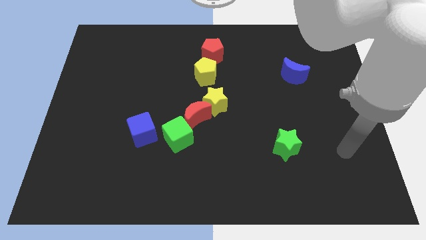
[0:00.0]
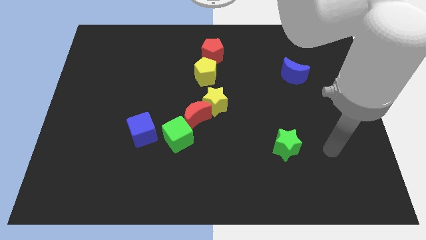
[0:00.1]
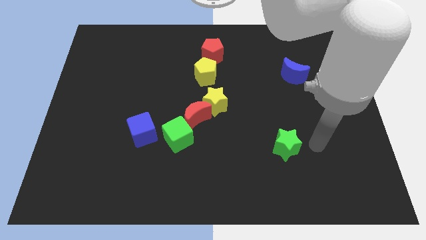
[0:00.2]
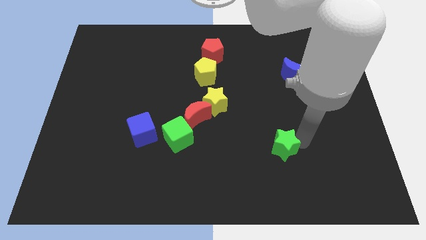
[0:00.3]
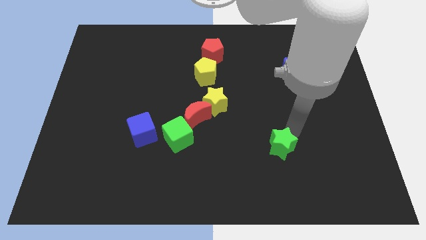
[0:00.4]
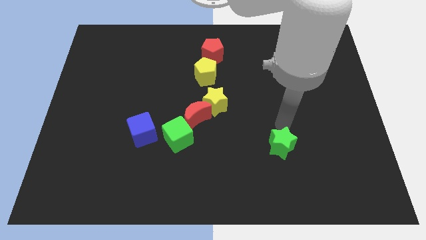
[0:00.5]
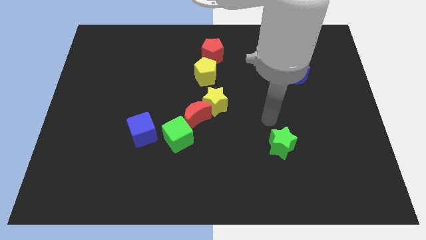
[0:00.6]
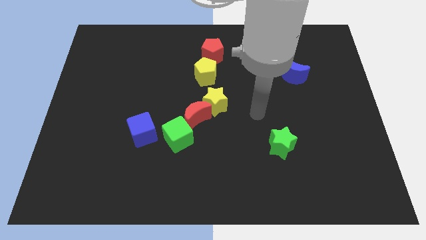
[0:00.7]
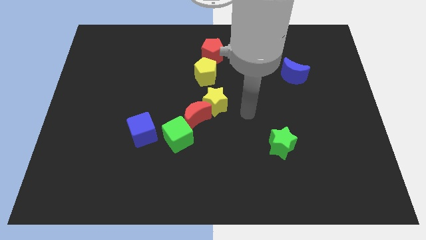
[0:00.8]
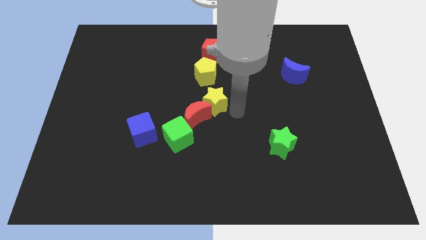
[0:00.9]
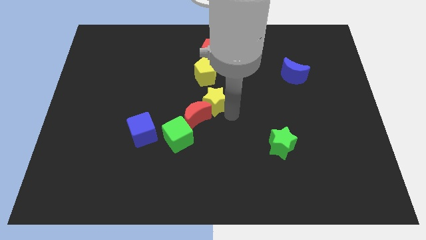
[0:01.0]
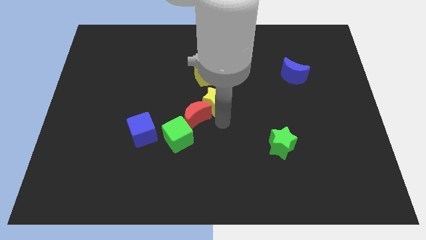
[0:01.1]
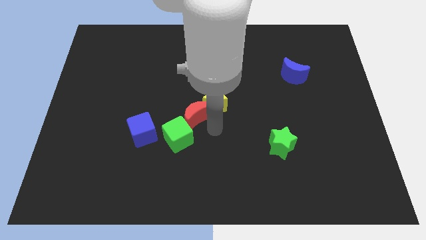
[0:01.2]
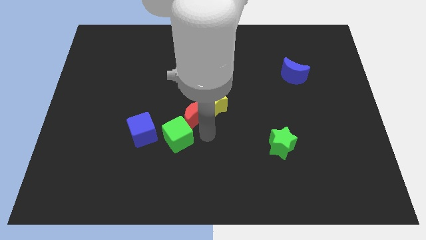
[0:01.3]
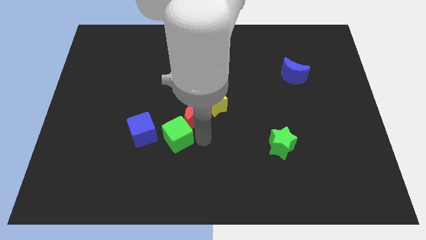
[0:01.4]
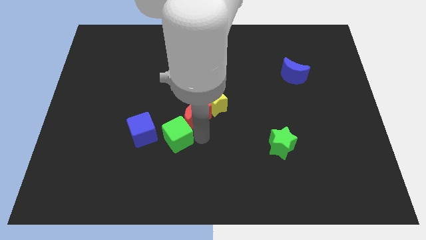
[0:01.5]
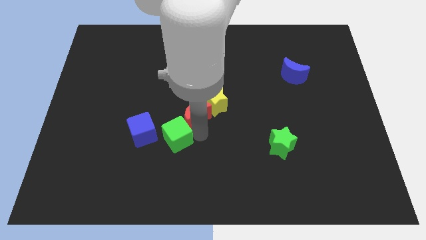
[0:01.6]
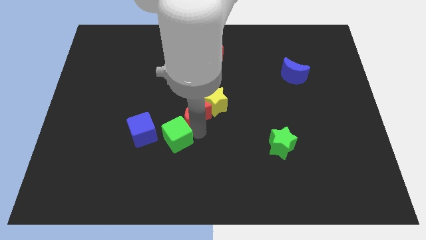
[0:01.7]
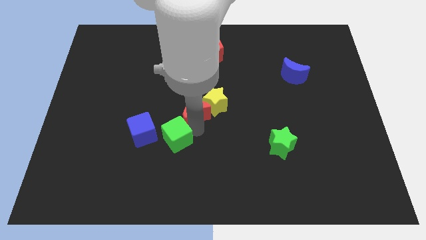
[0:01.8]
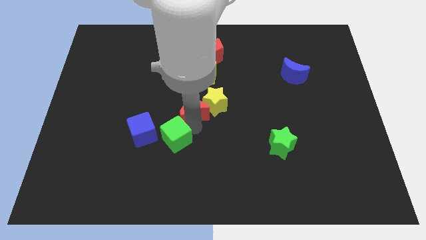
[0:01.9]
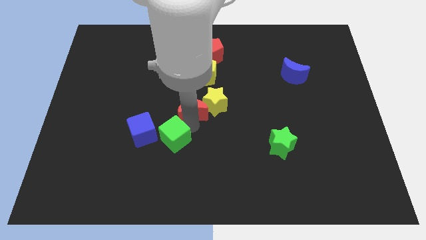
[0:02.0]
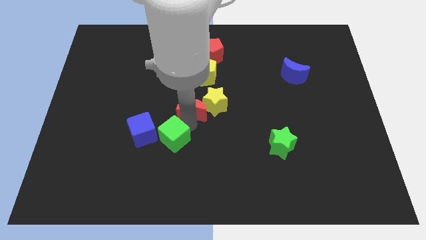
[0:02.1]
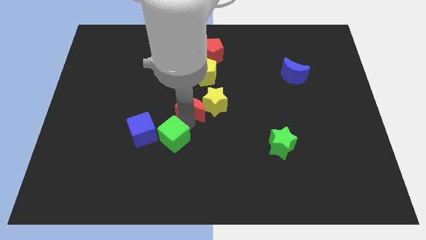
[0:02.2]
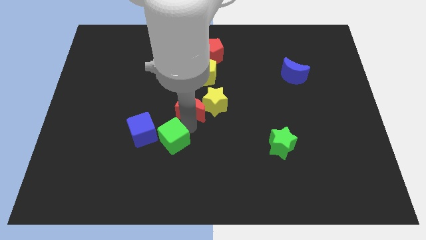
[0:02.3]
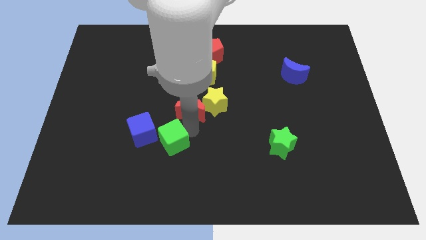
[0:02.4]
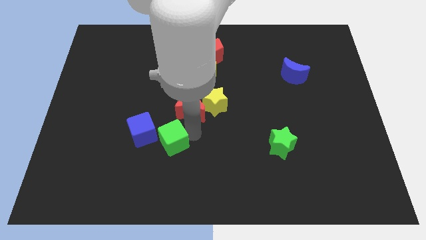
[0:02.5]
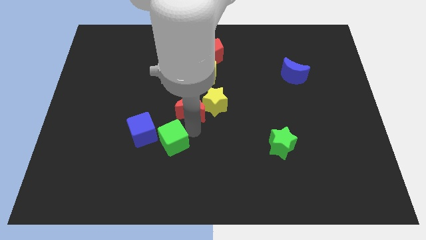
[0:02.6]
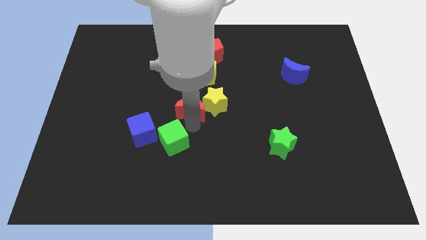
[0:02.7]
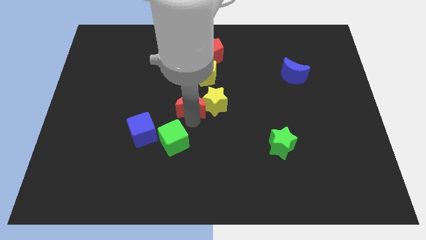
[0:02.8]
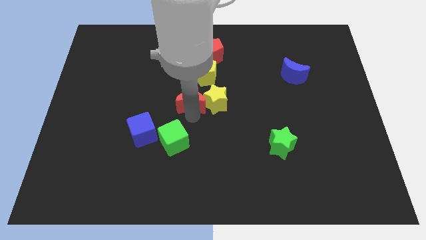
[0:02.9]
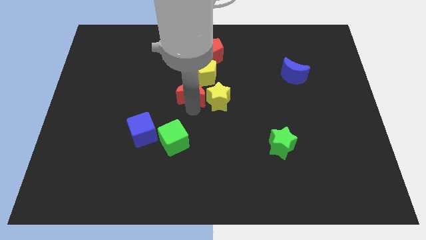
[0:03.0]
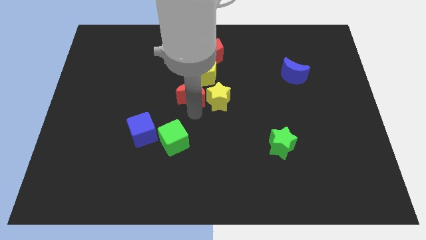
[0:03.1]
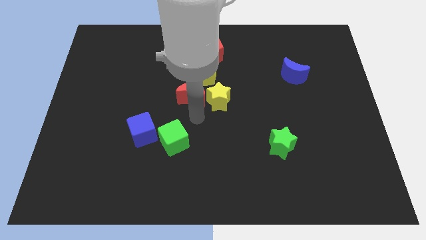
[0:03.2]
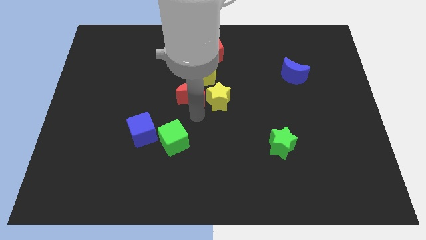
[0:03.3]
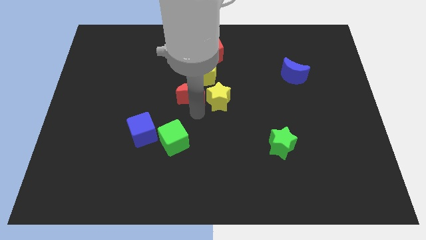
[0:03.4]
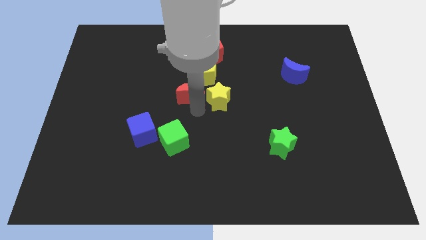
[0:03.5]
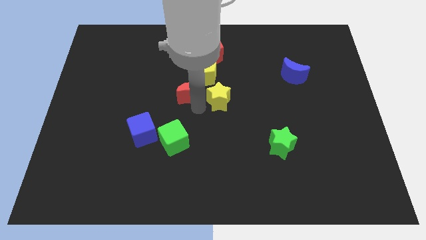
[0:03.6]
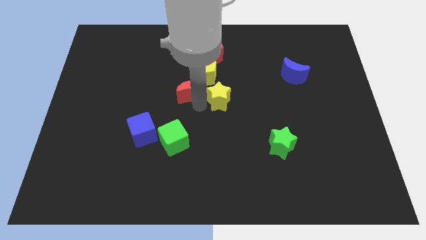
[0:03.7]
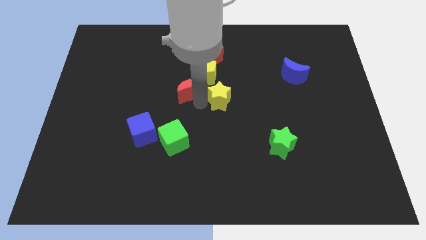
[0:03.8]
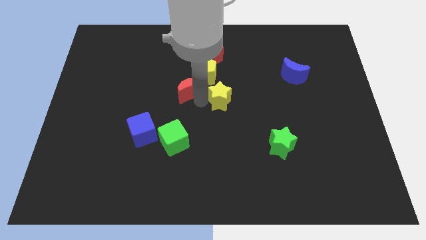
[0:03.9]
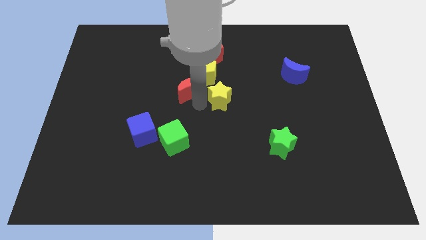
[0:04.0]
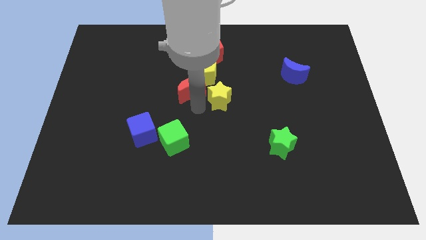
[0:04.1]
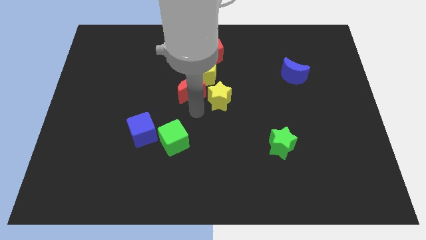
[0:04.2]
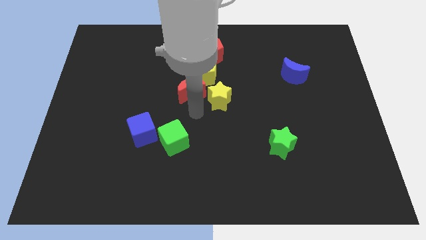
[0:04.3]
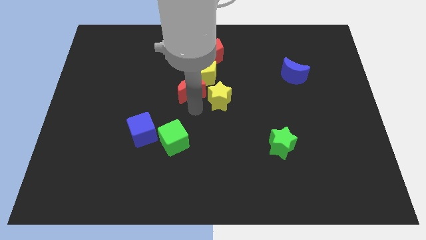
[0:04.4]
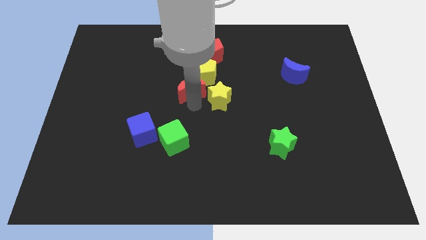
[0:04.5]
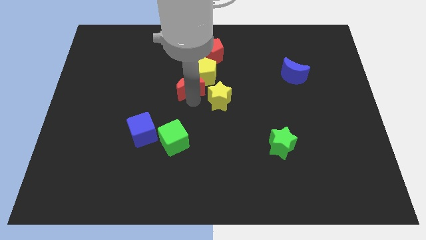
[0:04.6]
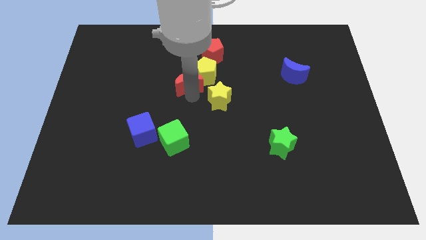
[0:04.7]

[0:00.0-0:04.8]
separate the red moon from the yellow star and green cube

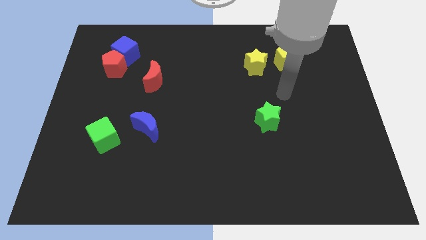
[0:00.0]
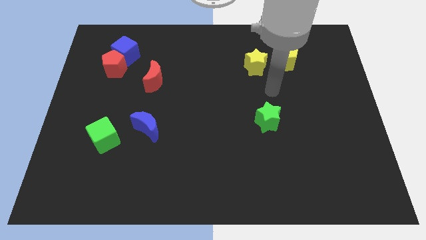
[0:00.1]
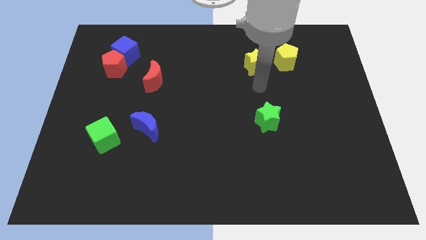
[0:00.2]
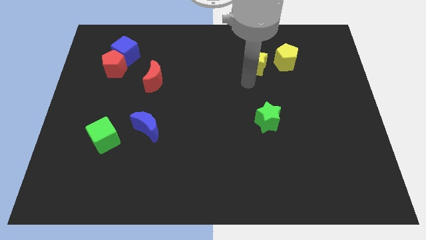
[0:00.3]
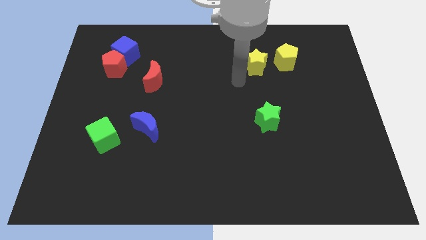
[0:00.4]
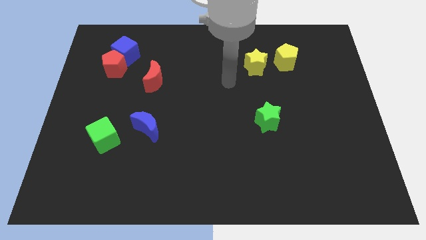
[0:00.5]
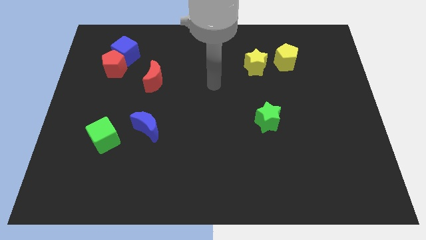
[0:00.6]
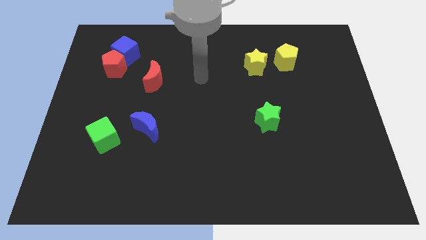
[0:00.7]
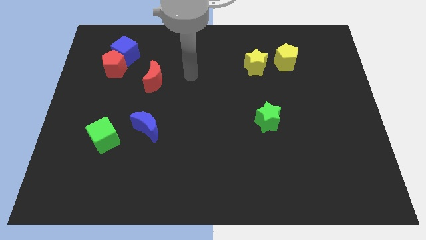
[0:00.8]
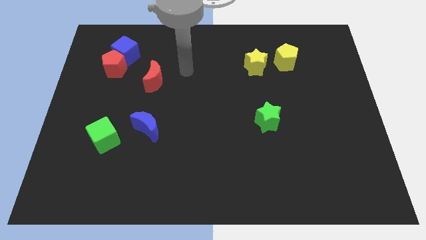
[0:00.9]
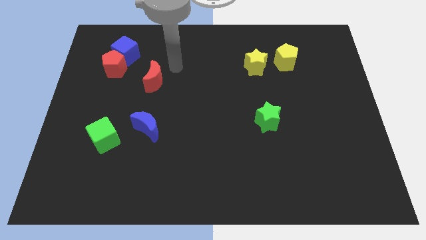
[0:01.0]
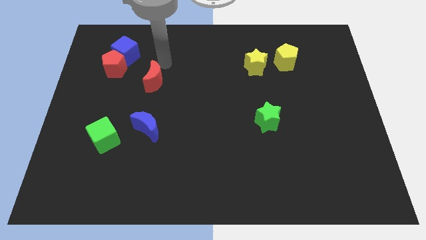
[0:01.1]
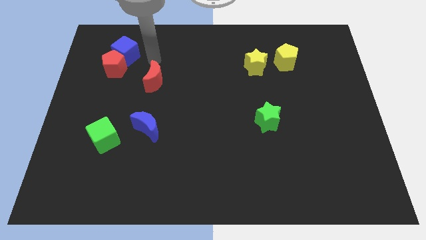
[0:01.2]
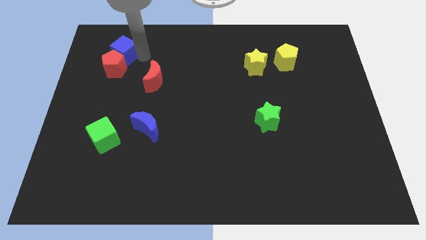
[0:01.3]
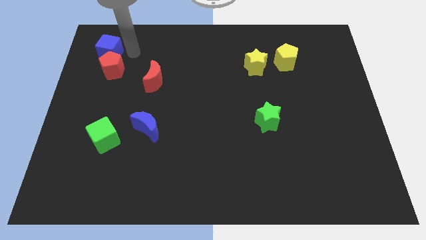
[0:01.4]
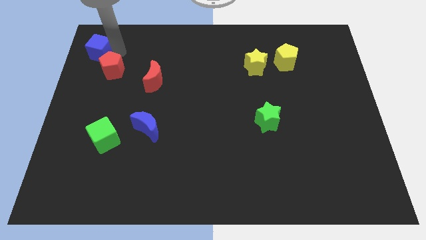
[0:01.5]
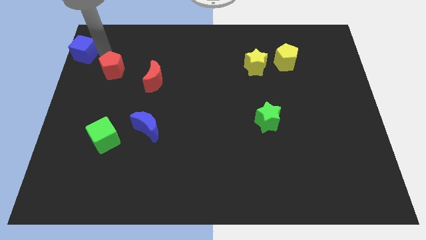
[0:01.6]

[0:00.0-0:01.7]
move the red pentagon away from the blue cube

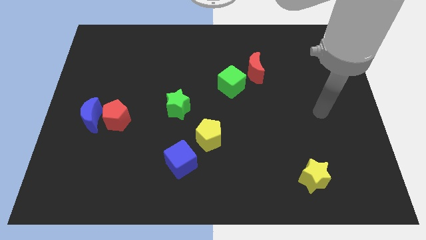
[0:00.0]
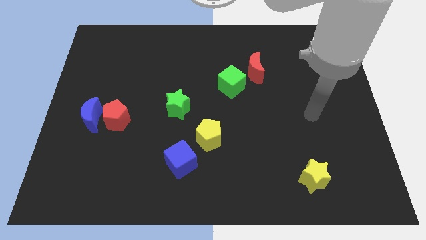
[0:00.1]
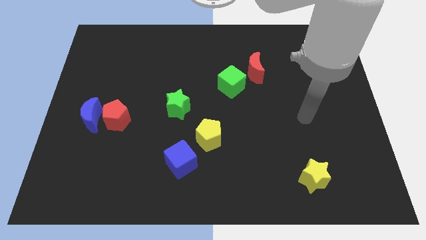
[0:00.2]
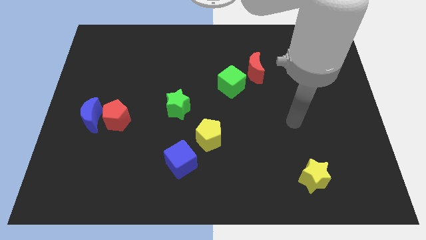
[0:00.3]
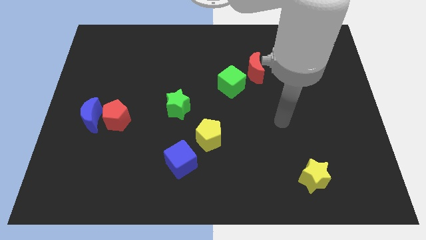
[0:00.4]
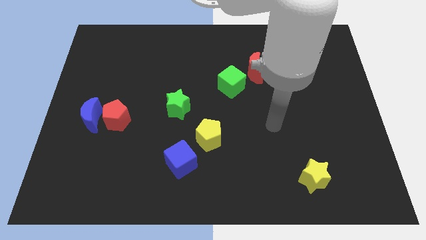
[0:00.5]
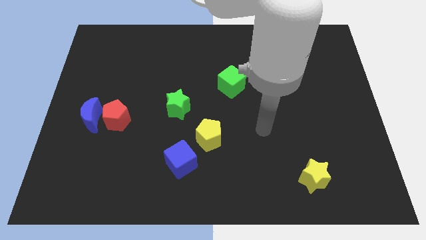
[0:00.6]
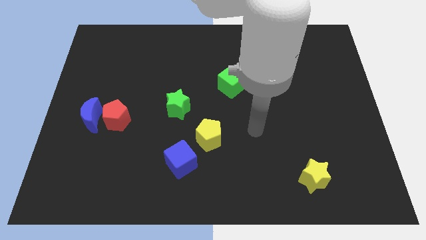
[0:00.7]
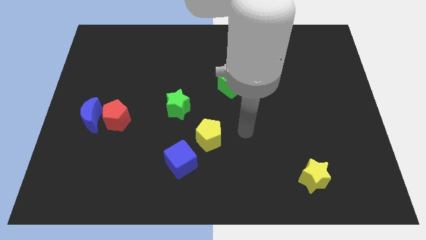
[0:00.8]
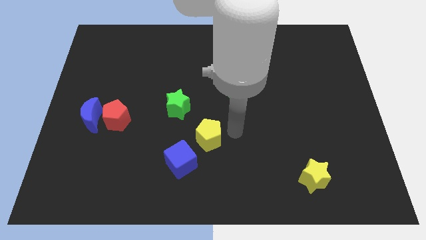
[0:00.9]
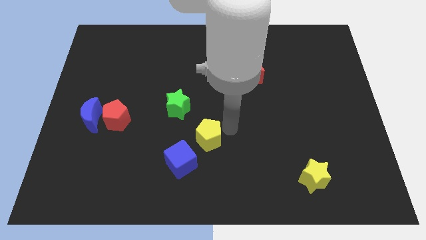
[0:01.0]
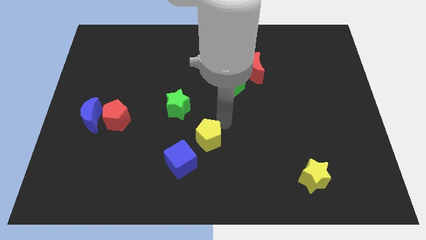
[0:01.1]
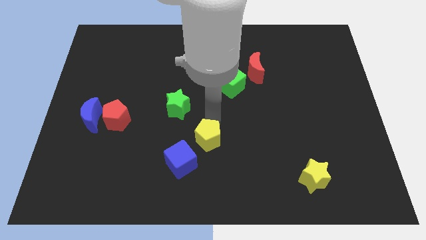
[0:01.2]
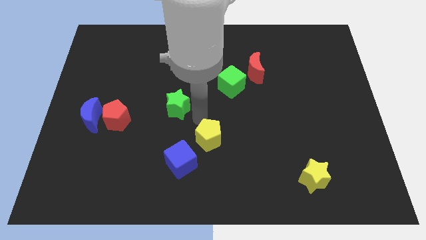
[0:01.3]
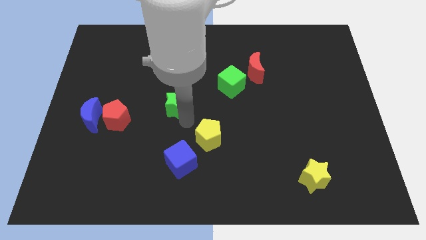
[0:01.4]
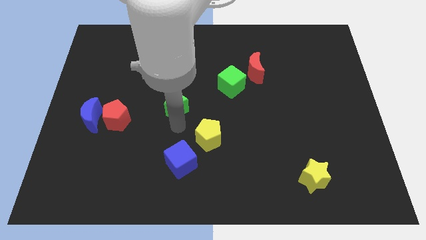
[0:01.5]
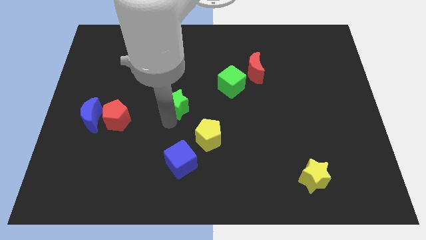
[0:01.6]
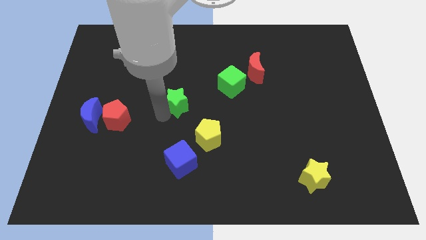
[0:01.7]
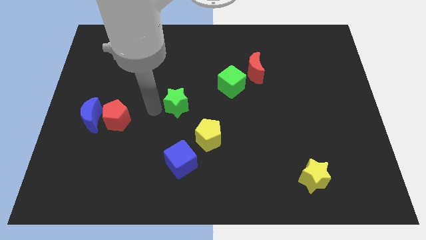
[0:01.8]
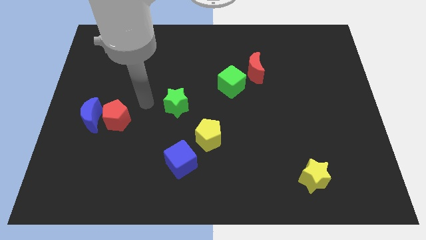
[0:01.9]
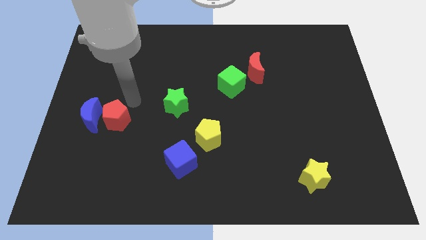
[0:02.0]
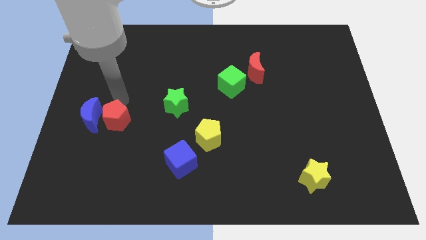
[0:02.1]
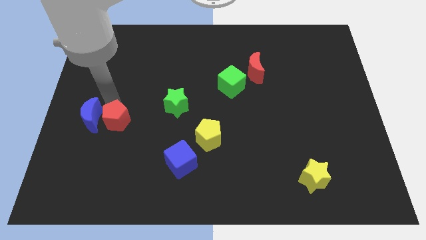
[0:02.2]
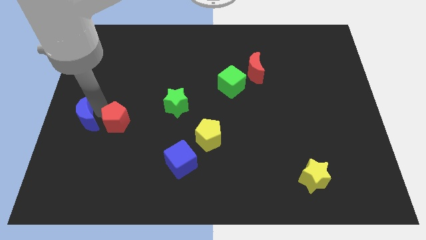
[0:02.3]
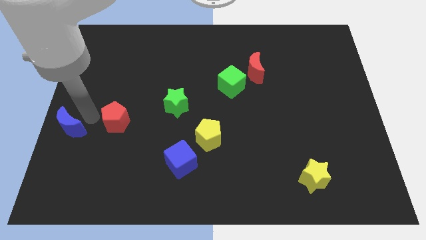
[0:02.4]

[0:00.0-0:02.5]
move the red pentagon away from the blue moon

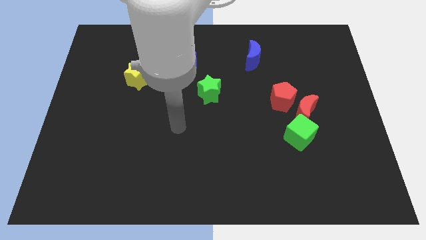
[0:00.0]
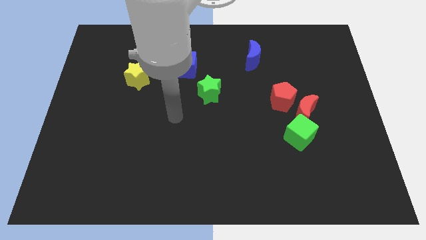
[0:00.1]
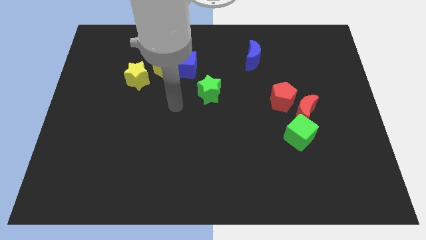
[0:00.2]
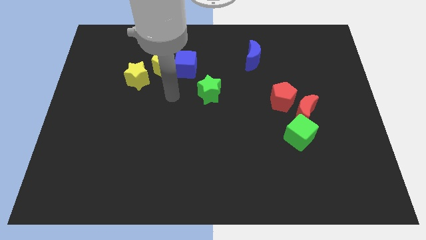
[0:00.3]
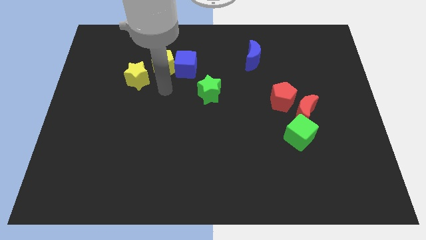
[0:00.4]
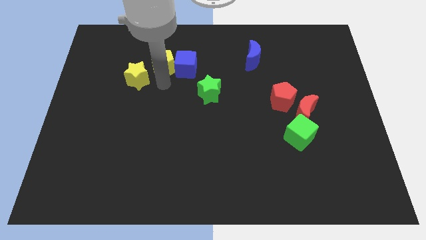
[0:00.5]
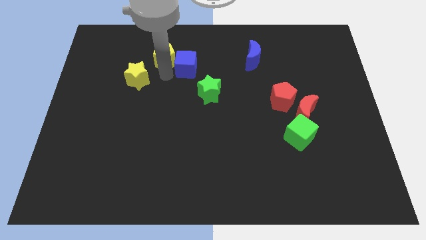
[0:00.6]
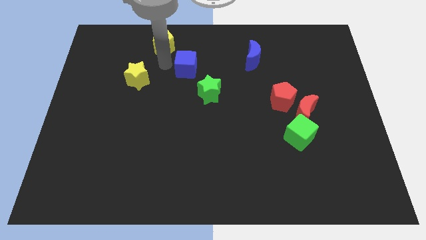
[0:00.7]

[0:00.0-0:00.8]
separate the blue cube from the yellow pentagon
